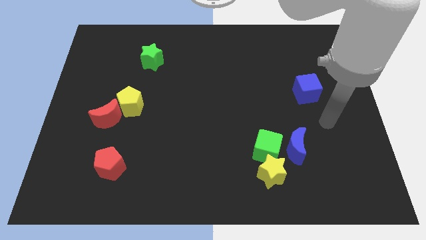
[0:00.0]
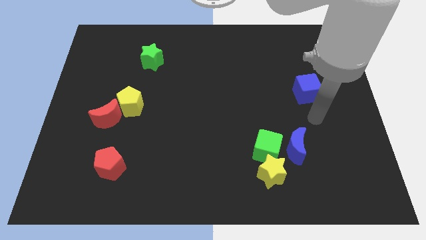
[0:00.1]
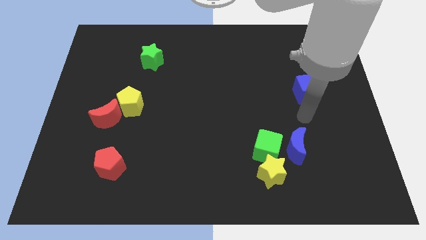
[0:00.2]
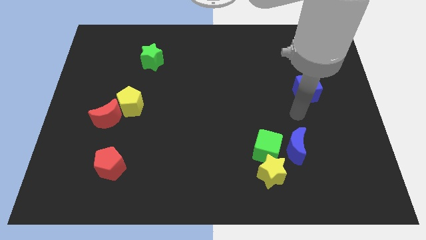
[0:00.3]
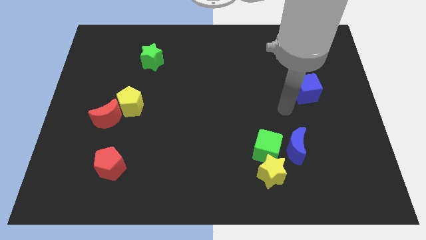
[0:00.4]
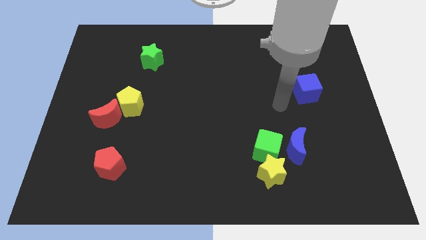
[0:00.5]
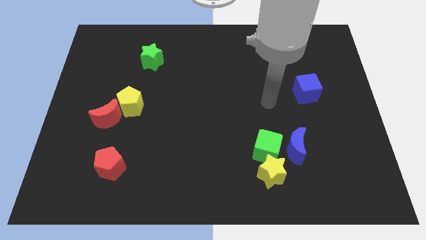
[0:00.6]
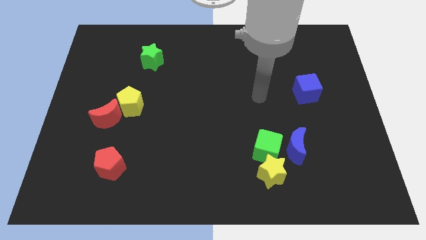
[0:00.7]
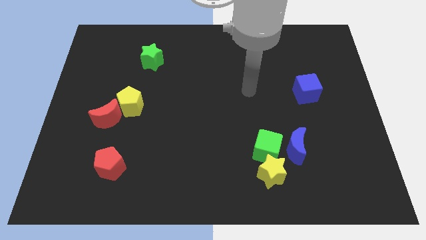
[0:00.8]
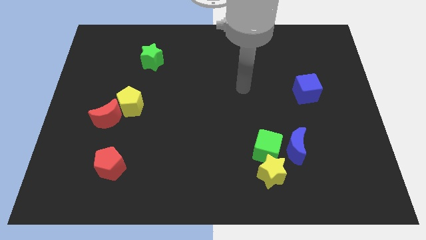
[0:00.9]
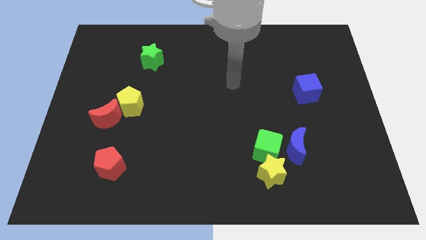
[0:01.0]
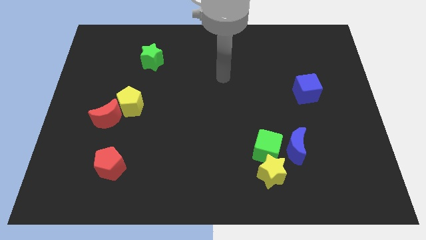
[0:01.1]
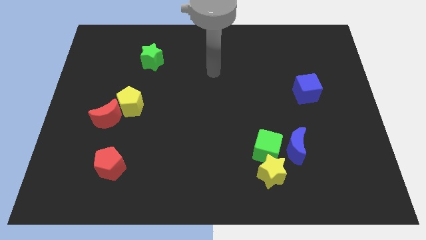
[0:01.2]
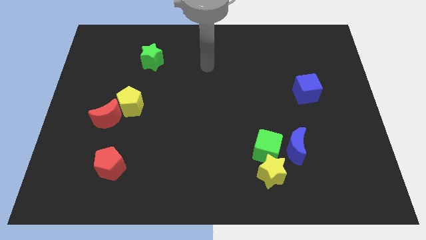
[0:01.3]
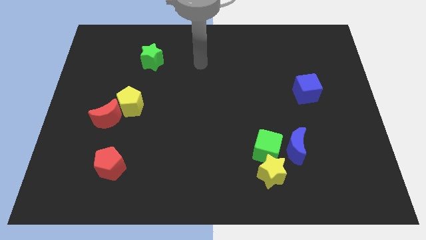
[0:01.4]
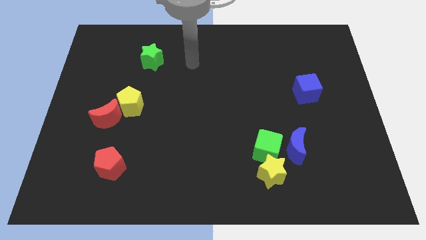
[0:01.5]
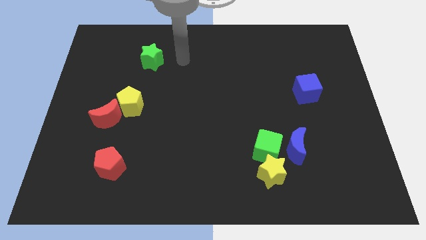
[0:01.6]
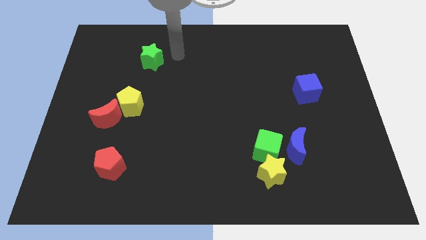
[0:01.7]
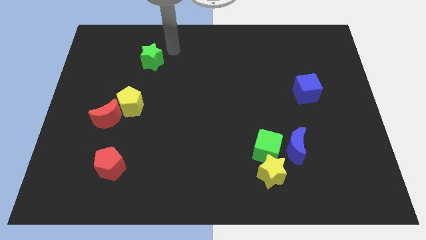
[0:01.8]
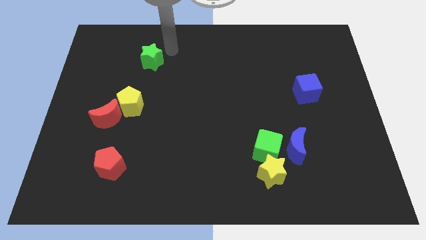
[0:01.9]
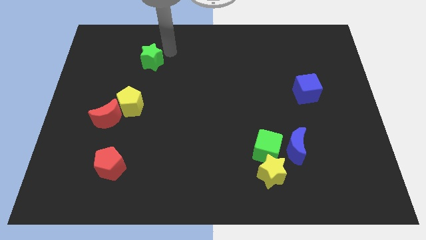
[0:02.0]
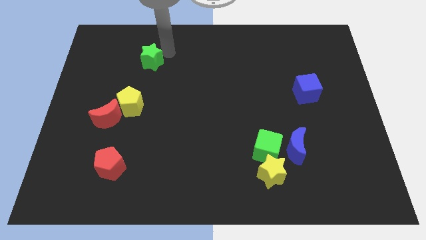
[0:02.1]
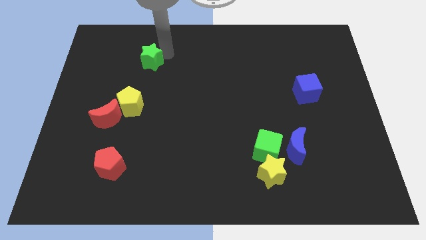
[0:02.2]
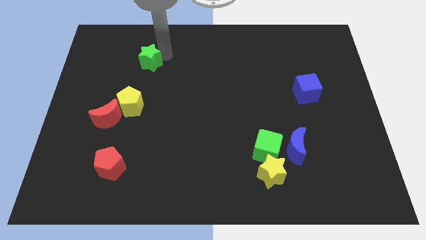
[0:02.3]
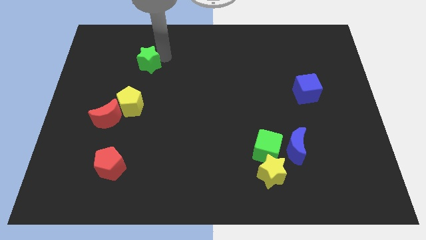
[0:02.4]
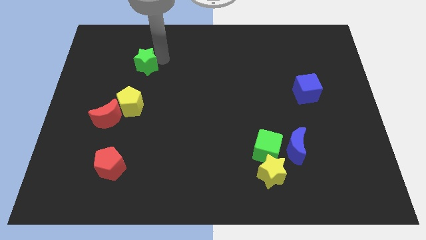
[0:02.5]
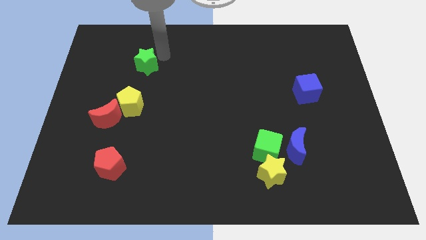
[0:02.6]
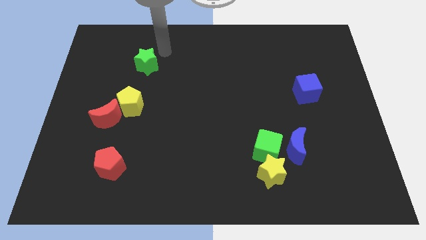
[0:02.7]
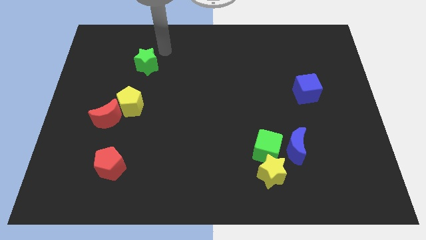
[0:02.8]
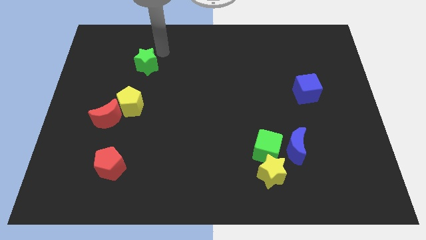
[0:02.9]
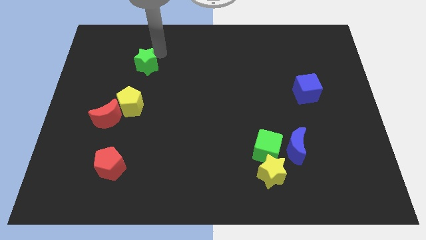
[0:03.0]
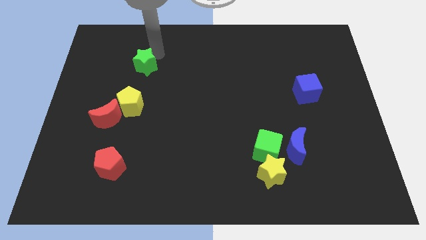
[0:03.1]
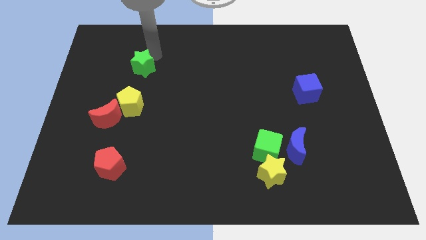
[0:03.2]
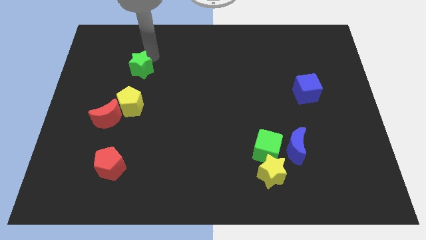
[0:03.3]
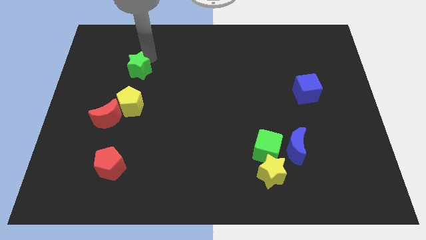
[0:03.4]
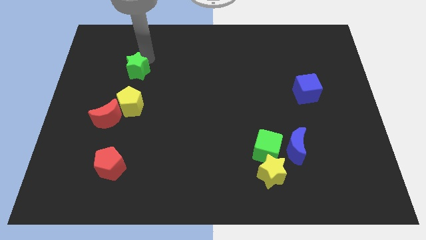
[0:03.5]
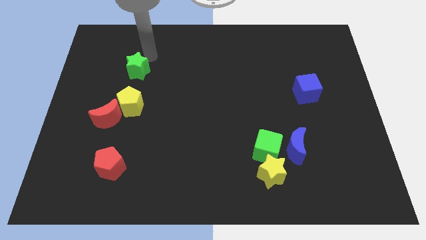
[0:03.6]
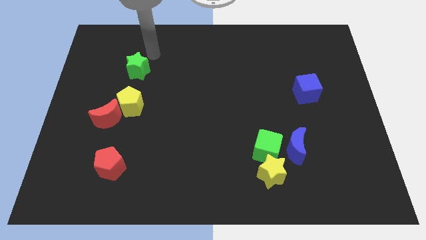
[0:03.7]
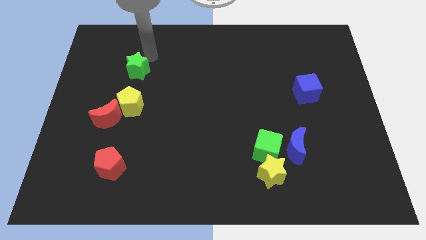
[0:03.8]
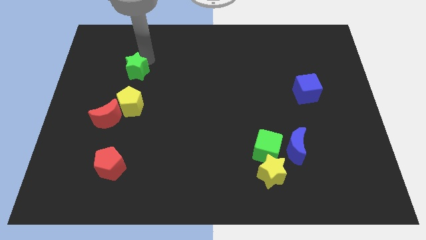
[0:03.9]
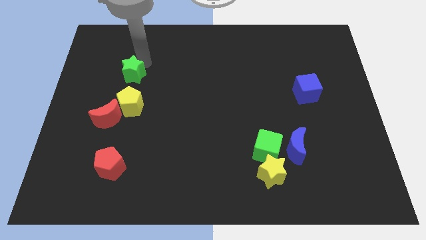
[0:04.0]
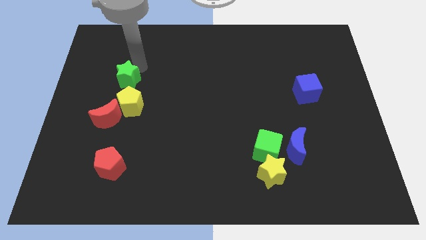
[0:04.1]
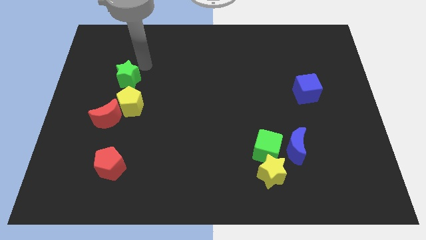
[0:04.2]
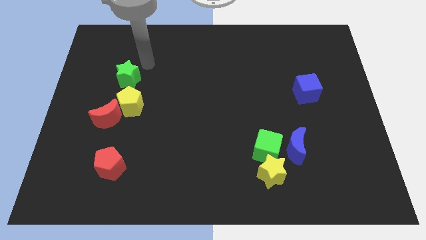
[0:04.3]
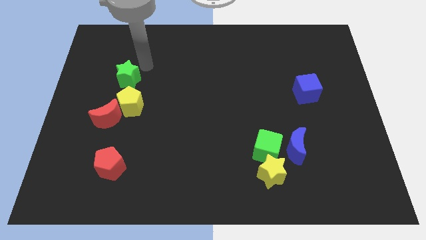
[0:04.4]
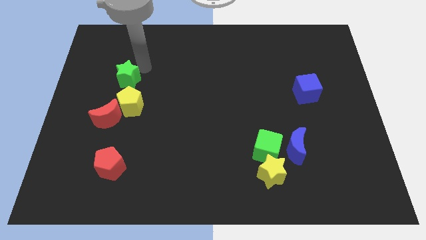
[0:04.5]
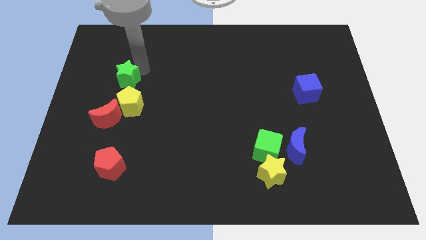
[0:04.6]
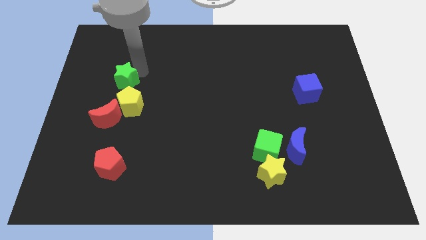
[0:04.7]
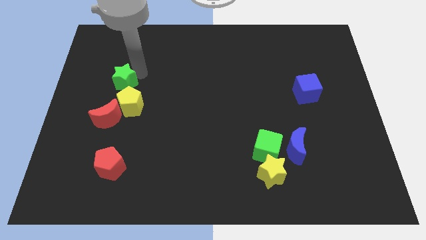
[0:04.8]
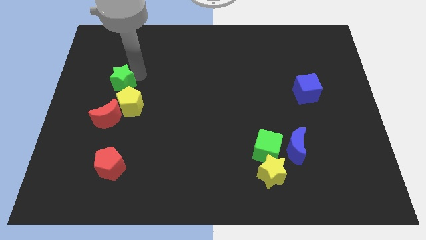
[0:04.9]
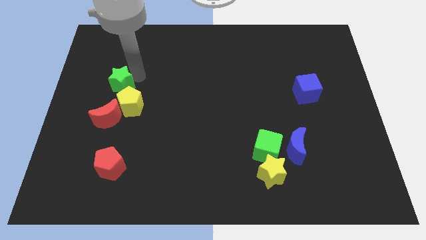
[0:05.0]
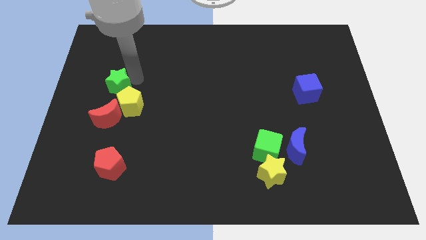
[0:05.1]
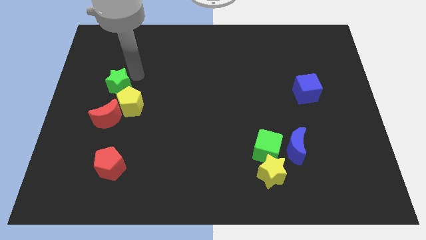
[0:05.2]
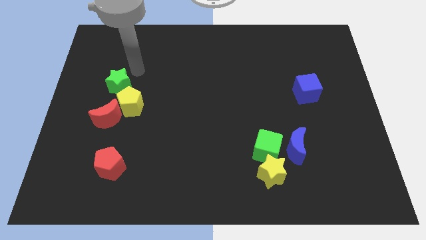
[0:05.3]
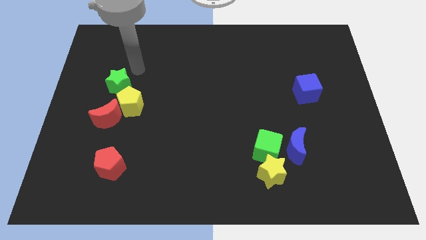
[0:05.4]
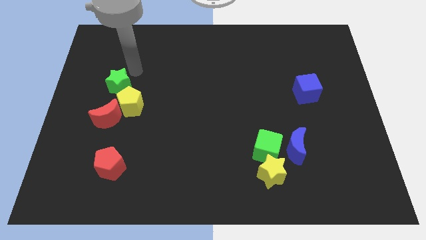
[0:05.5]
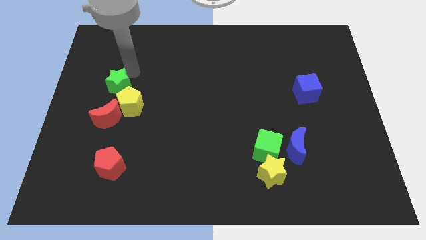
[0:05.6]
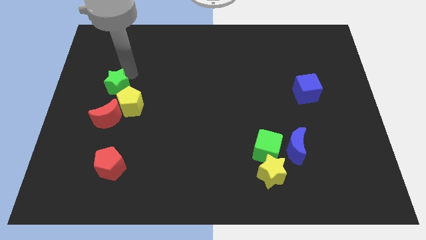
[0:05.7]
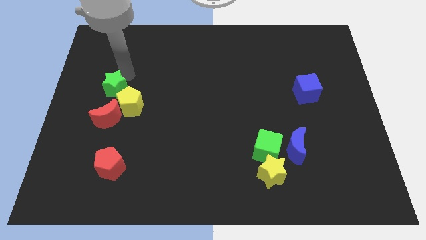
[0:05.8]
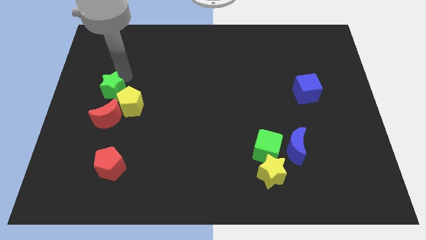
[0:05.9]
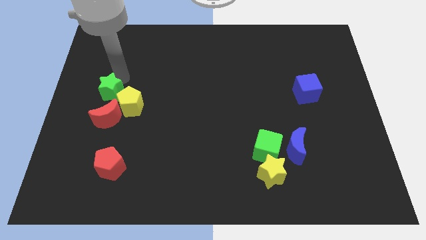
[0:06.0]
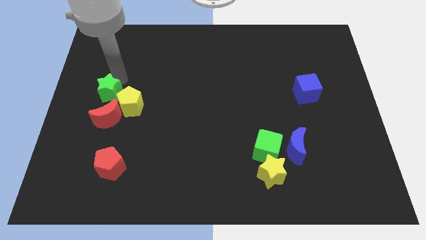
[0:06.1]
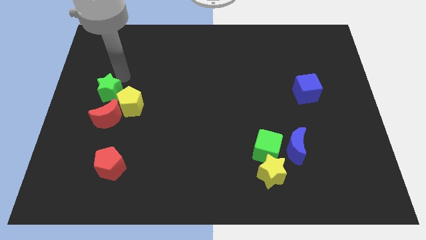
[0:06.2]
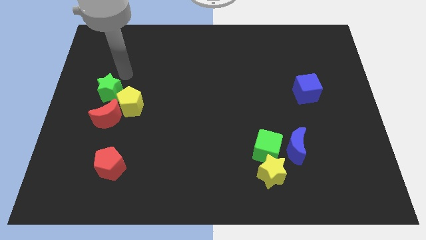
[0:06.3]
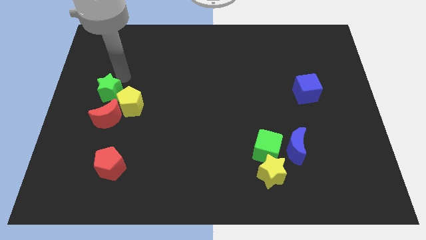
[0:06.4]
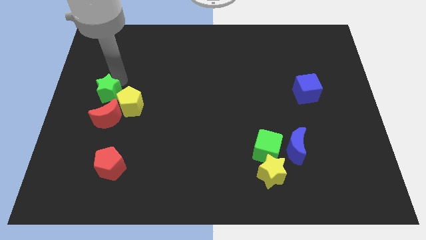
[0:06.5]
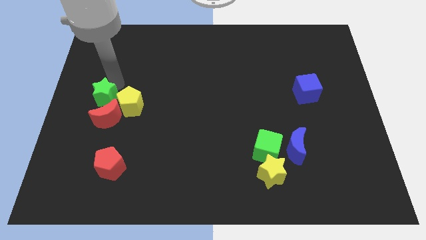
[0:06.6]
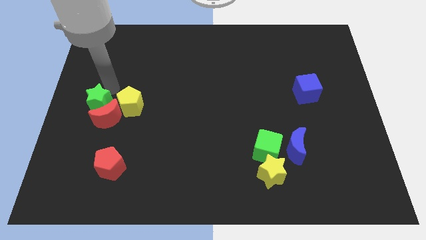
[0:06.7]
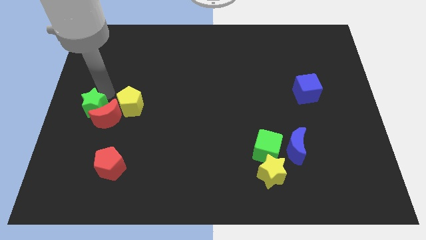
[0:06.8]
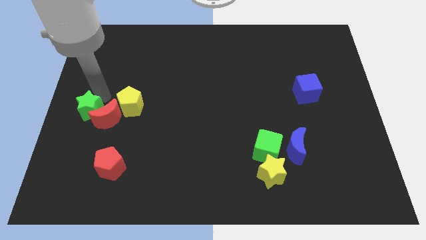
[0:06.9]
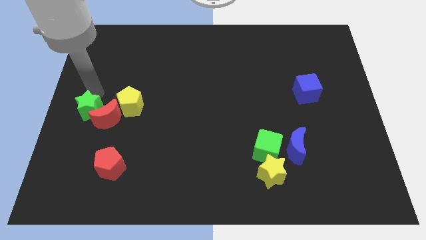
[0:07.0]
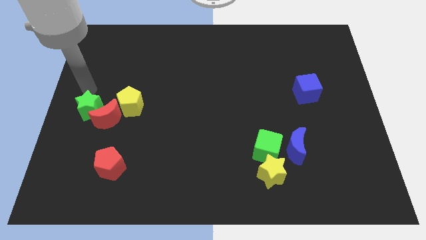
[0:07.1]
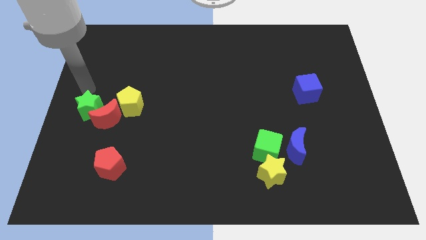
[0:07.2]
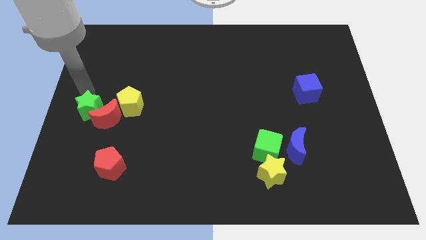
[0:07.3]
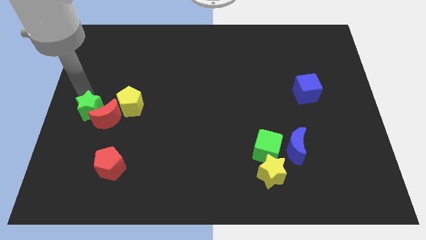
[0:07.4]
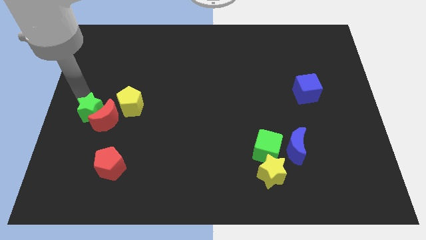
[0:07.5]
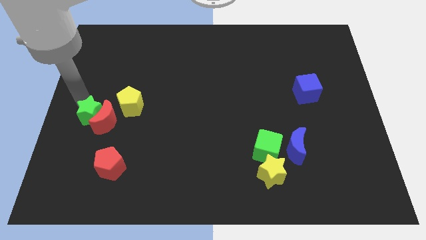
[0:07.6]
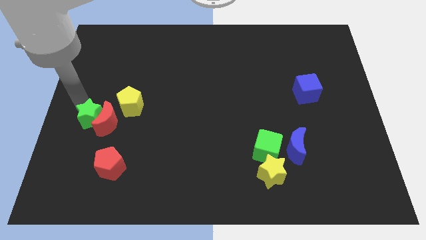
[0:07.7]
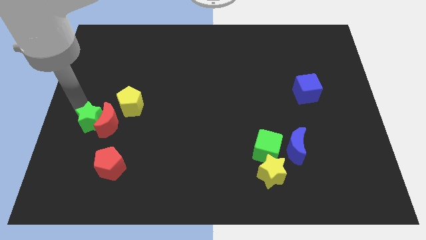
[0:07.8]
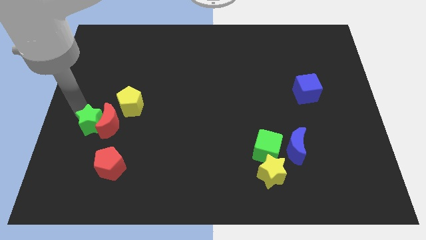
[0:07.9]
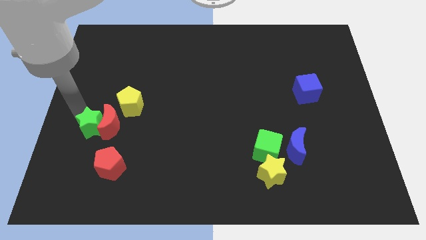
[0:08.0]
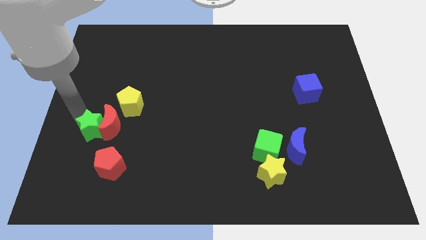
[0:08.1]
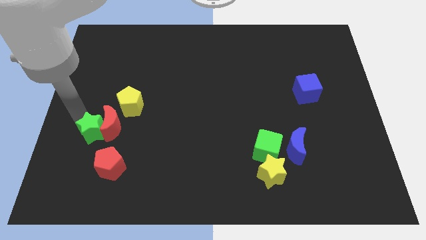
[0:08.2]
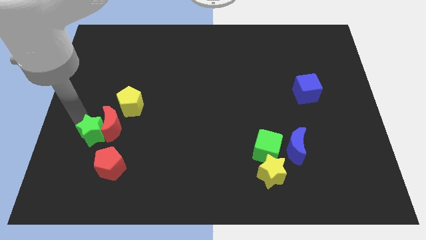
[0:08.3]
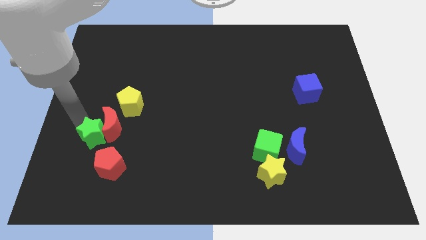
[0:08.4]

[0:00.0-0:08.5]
slide the green star to the bottom of the red moon
